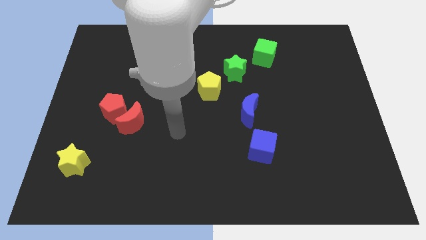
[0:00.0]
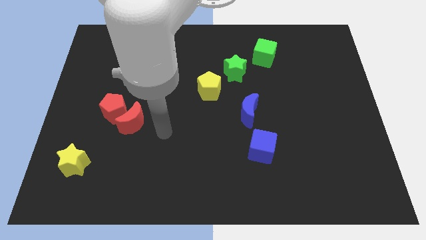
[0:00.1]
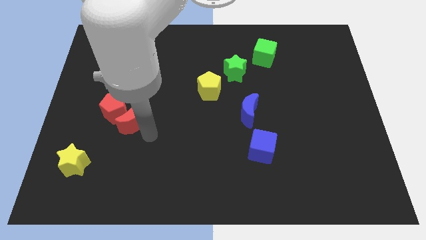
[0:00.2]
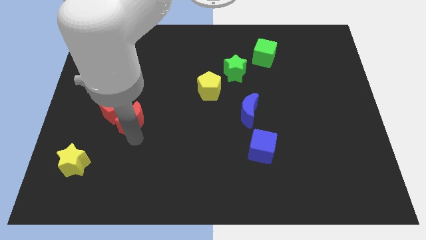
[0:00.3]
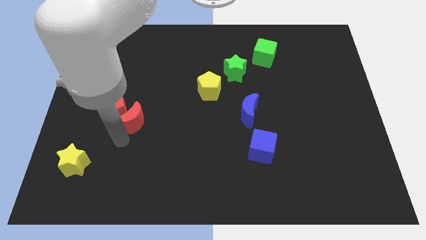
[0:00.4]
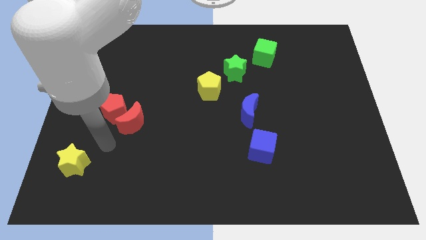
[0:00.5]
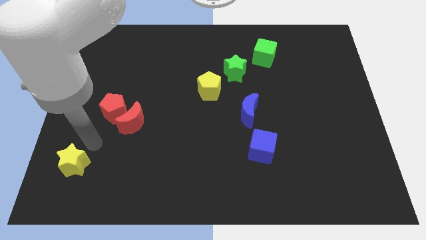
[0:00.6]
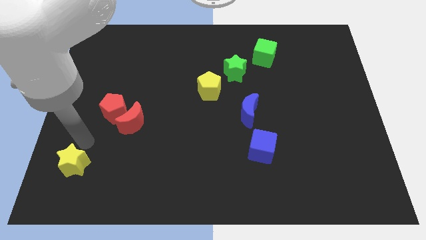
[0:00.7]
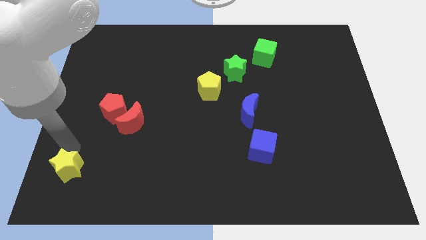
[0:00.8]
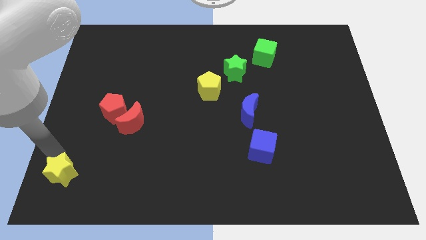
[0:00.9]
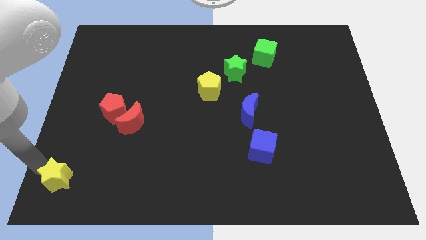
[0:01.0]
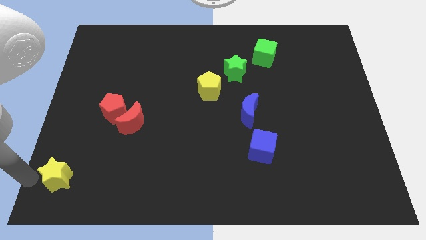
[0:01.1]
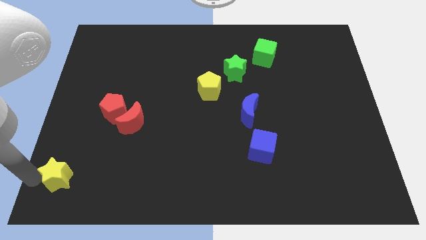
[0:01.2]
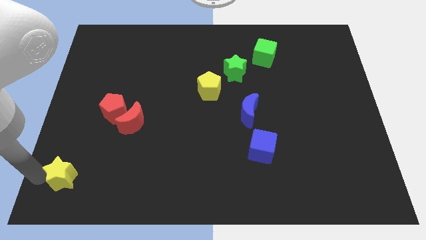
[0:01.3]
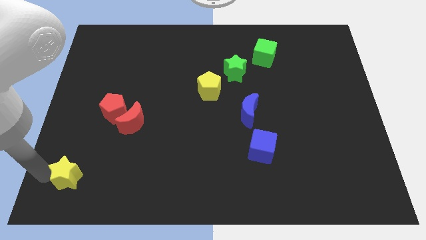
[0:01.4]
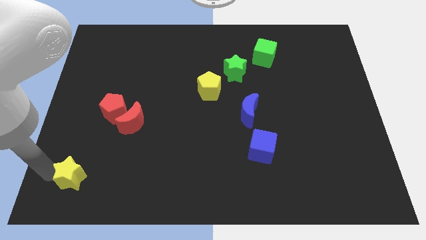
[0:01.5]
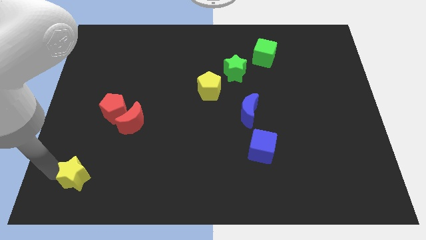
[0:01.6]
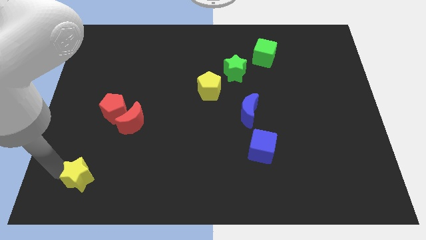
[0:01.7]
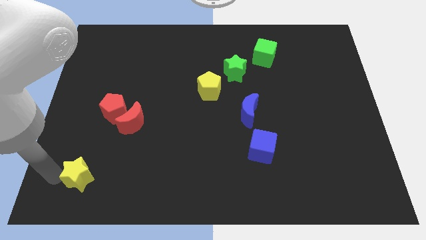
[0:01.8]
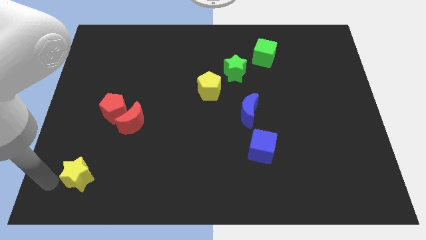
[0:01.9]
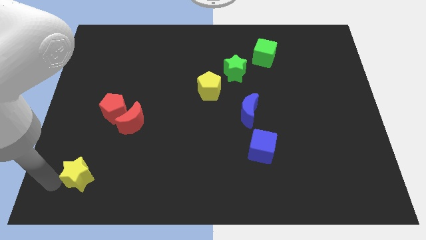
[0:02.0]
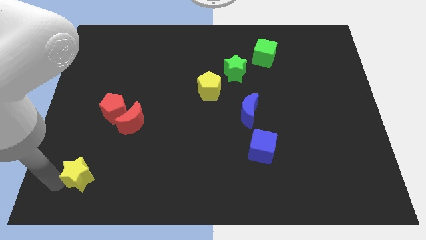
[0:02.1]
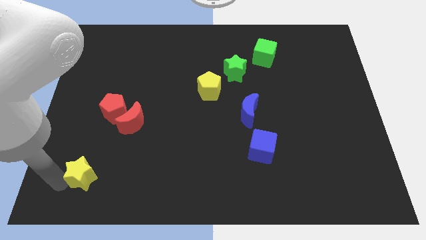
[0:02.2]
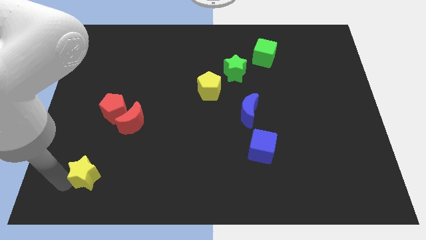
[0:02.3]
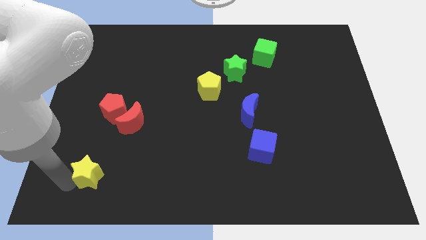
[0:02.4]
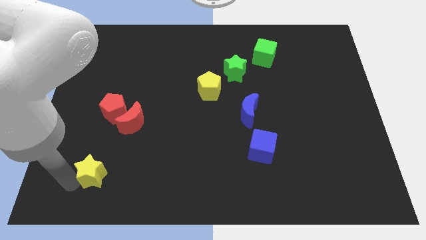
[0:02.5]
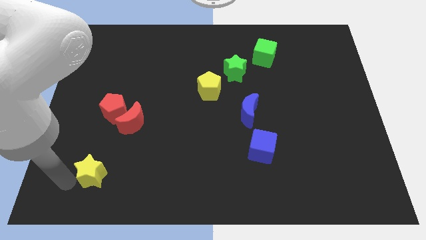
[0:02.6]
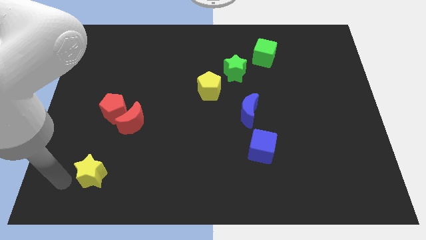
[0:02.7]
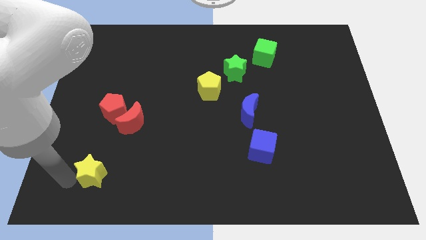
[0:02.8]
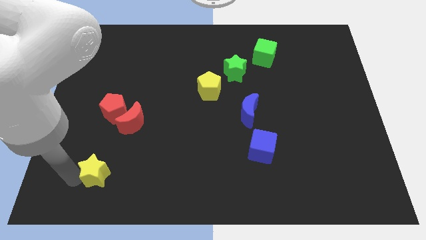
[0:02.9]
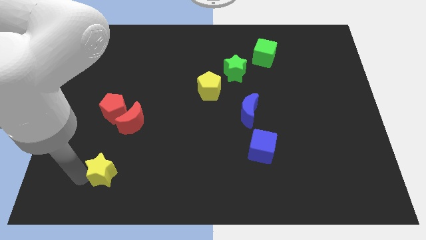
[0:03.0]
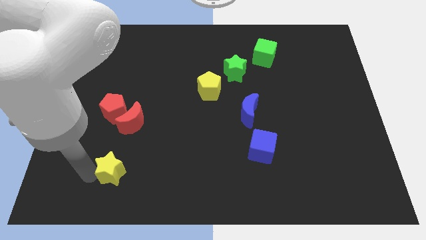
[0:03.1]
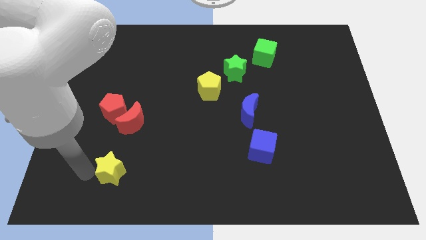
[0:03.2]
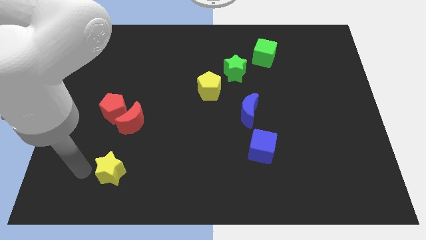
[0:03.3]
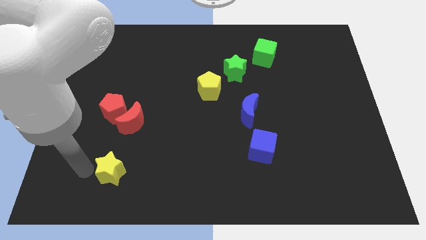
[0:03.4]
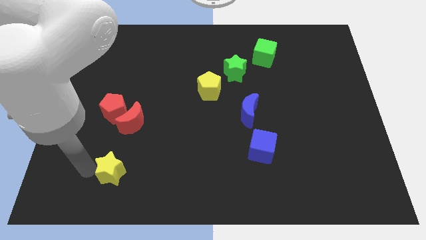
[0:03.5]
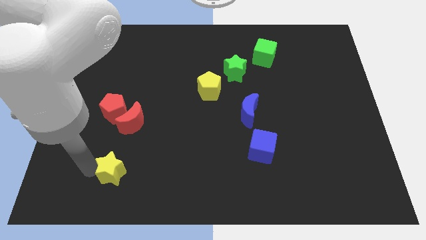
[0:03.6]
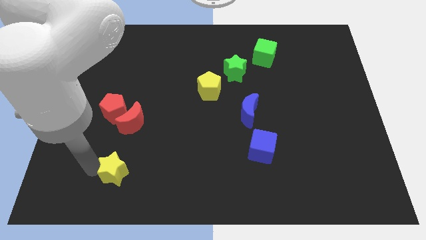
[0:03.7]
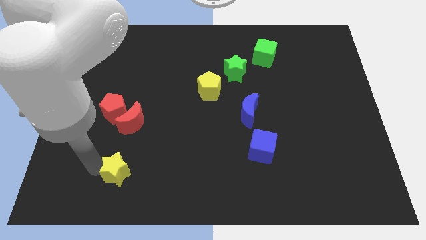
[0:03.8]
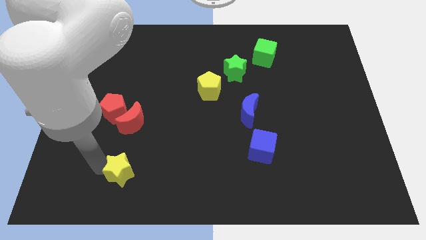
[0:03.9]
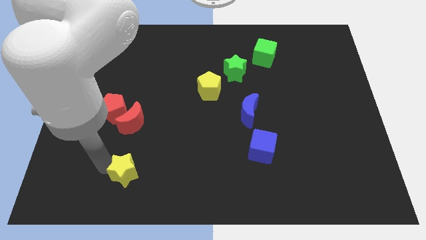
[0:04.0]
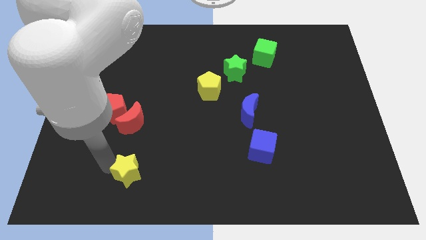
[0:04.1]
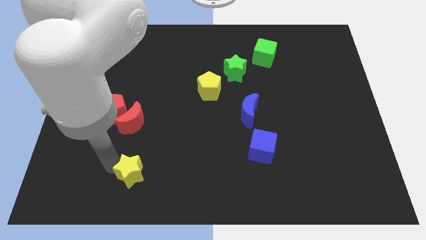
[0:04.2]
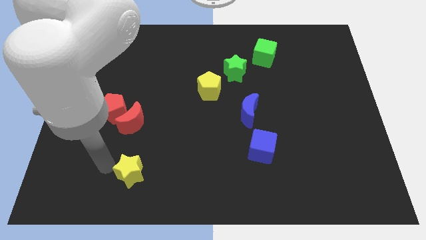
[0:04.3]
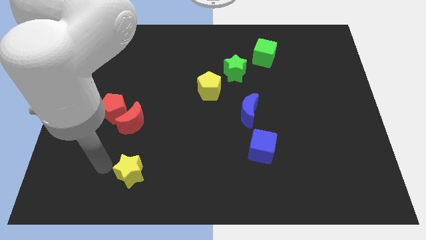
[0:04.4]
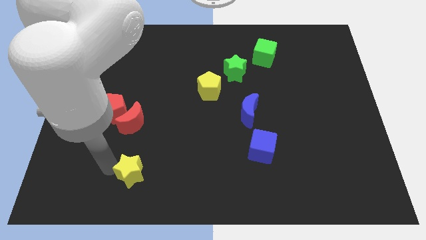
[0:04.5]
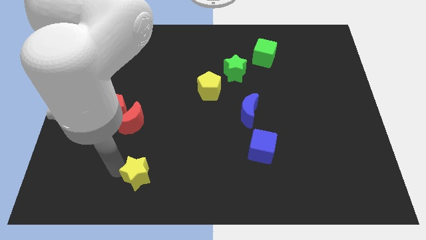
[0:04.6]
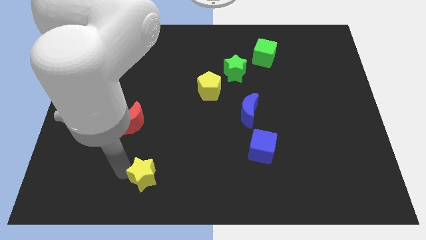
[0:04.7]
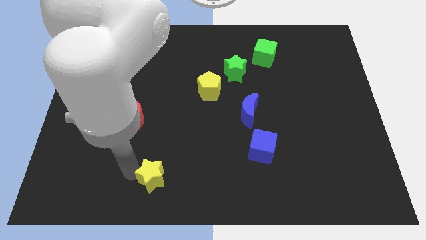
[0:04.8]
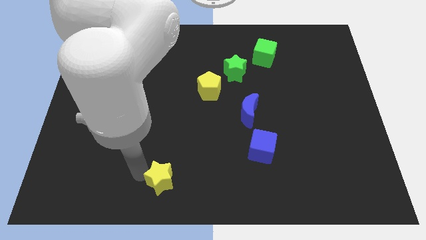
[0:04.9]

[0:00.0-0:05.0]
move the yellow star to the bottom side

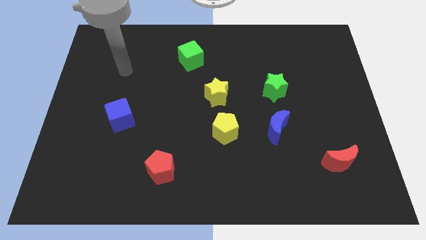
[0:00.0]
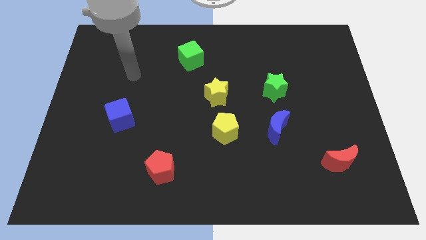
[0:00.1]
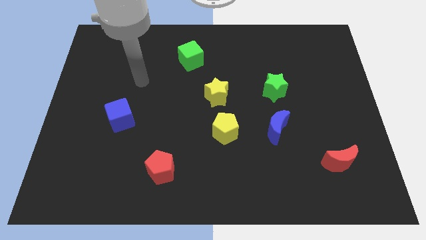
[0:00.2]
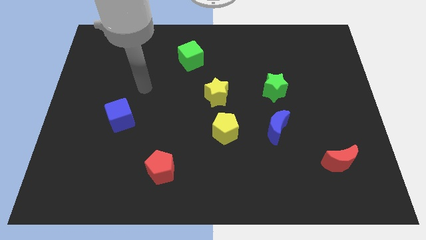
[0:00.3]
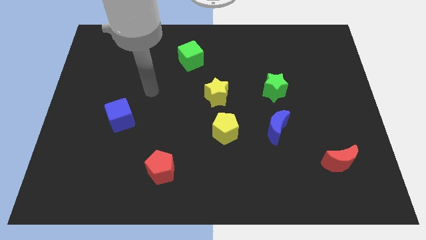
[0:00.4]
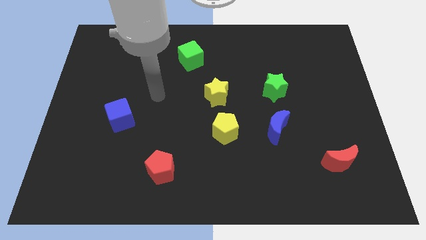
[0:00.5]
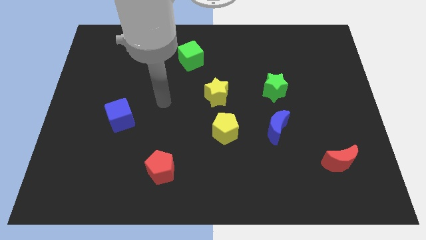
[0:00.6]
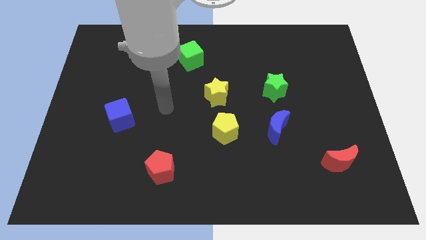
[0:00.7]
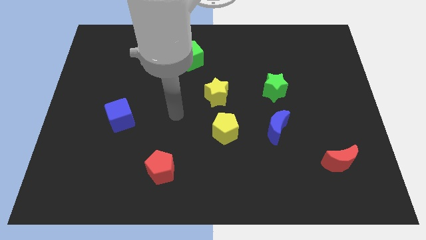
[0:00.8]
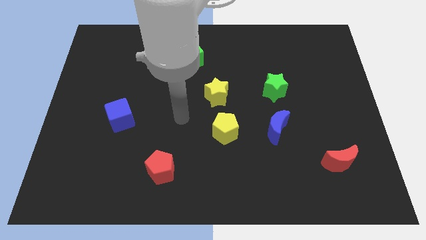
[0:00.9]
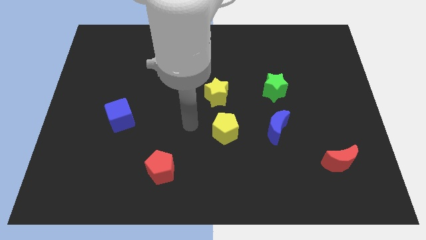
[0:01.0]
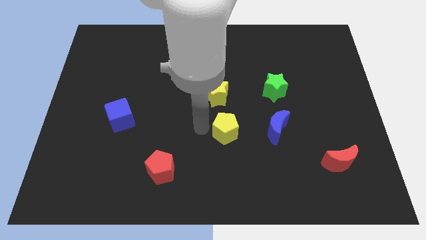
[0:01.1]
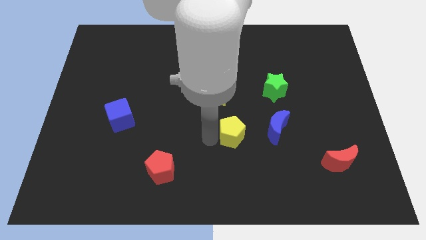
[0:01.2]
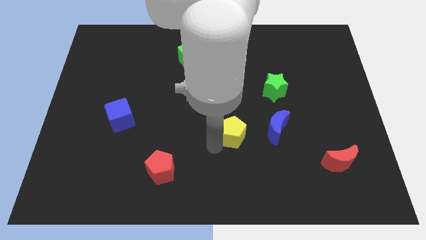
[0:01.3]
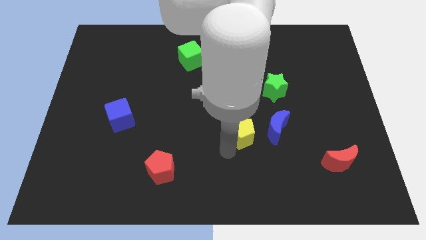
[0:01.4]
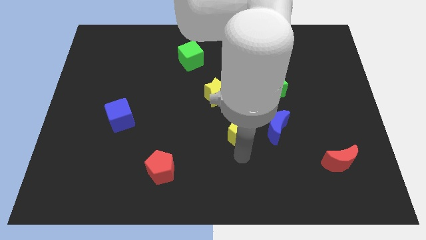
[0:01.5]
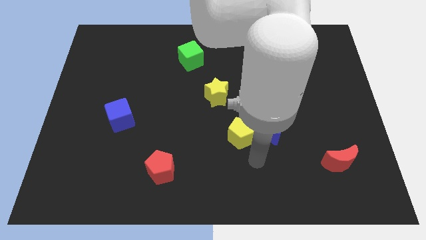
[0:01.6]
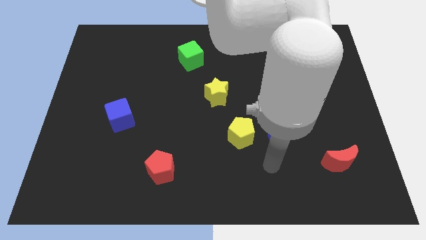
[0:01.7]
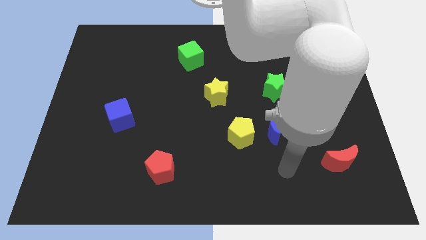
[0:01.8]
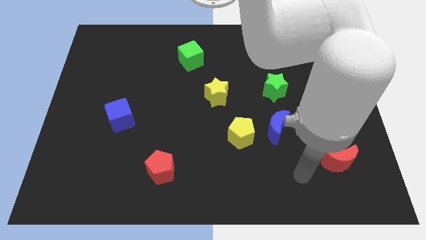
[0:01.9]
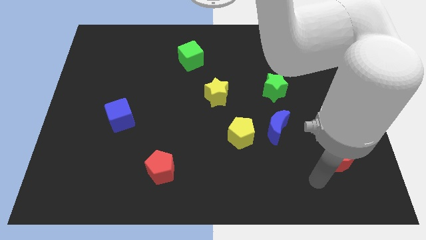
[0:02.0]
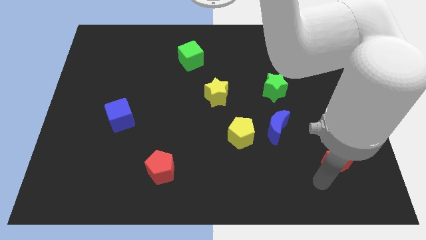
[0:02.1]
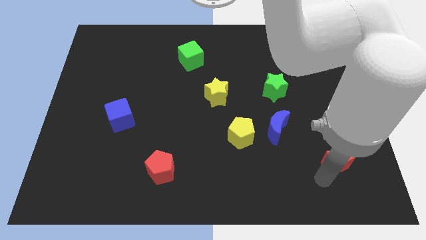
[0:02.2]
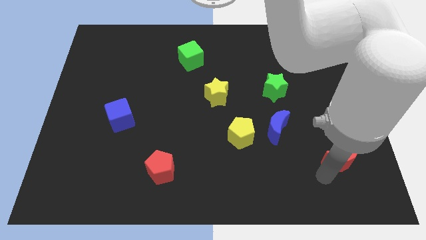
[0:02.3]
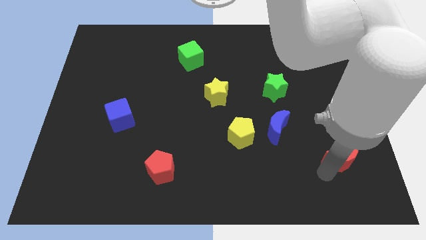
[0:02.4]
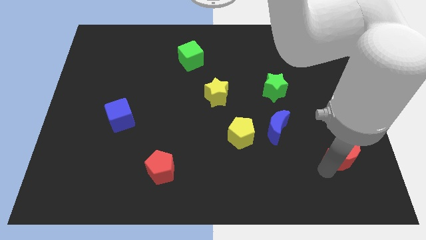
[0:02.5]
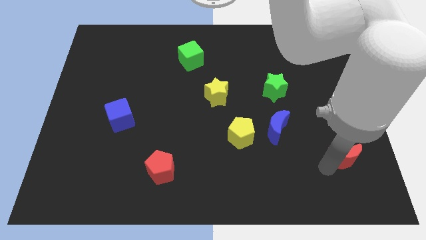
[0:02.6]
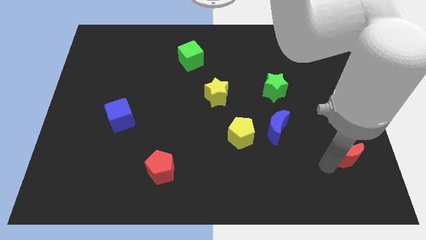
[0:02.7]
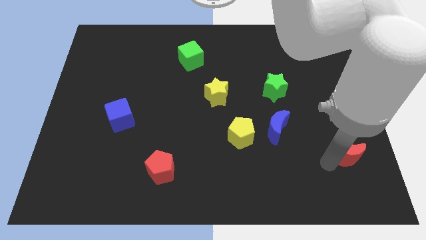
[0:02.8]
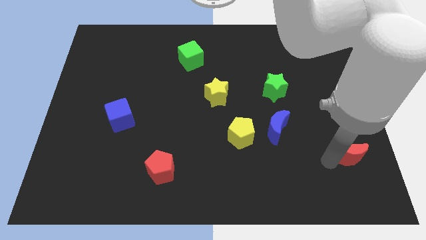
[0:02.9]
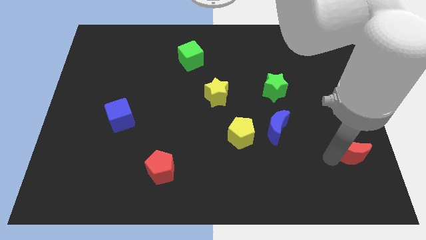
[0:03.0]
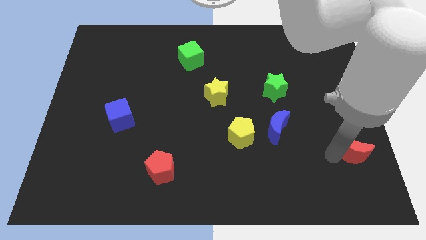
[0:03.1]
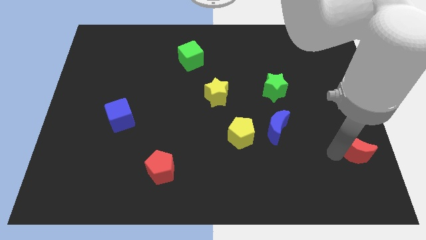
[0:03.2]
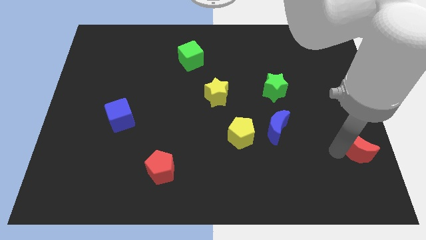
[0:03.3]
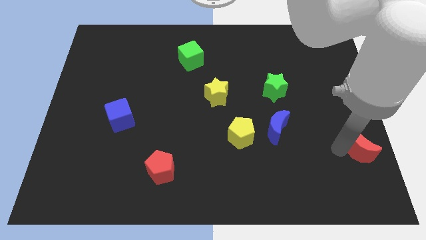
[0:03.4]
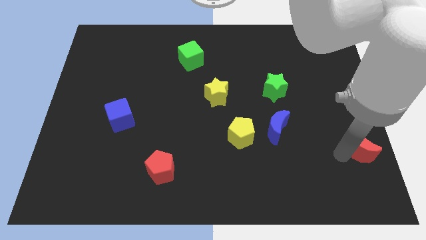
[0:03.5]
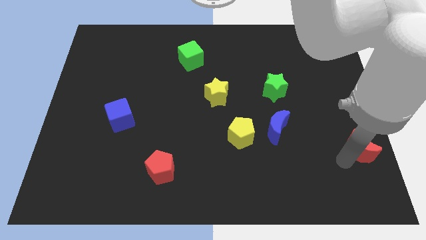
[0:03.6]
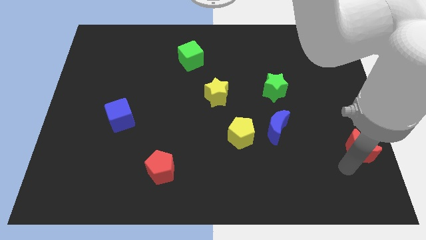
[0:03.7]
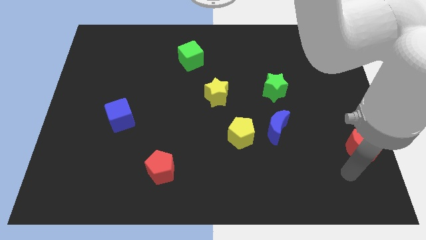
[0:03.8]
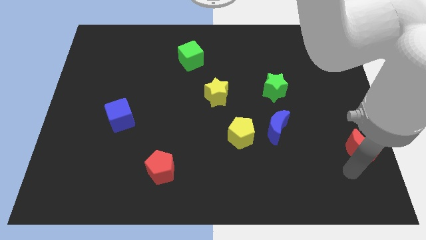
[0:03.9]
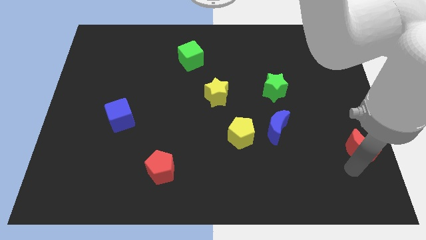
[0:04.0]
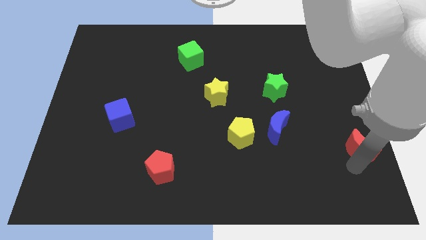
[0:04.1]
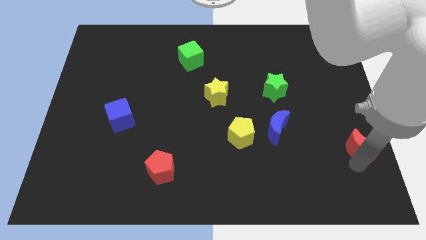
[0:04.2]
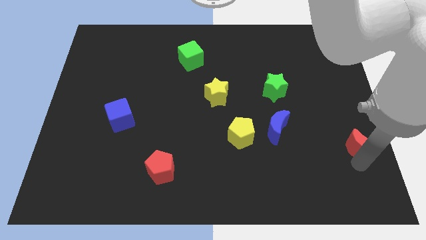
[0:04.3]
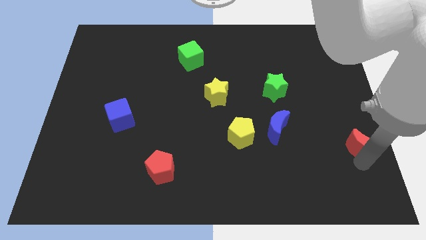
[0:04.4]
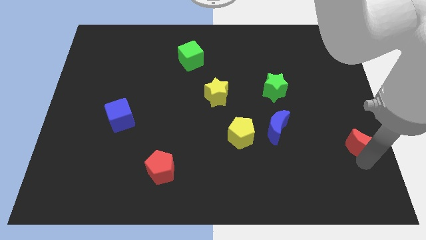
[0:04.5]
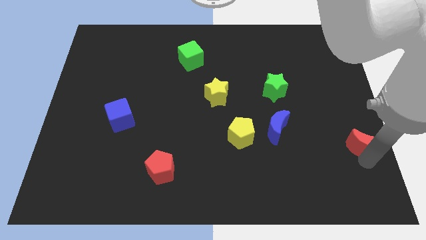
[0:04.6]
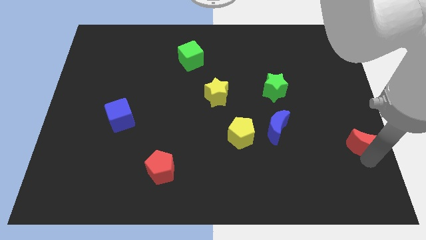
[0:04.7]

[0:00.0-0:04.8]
slide the red moon to the right side
